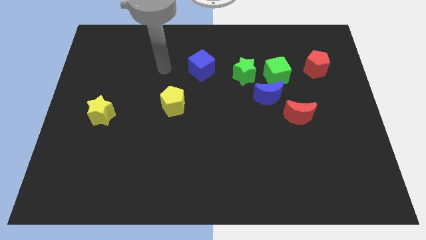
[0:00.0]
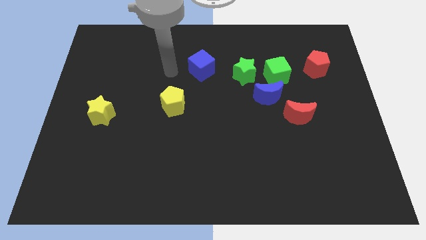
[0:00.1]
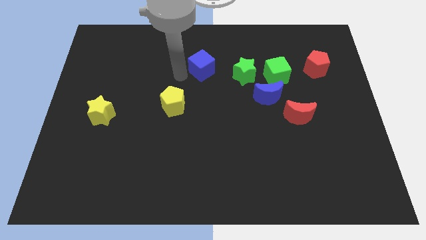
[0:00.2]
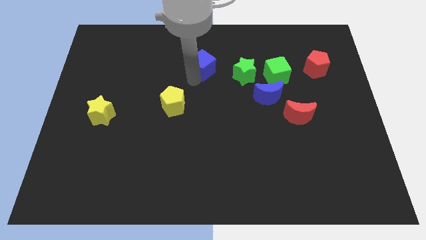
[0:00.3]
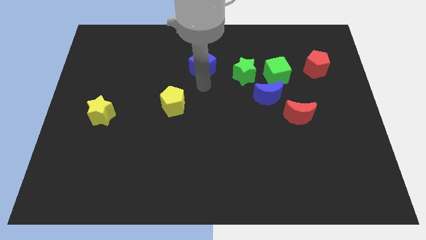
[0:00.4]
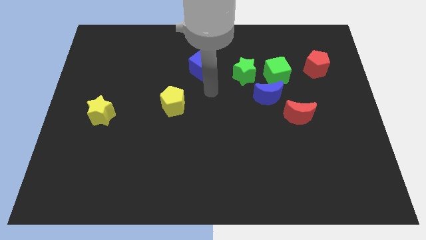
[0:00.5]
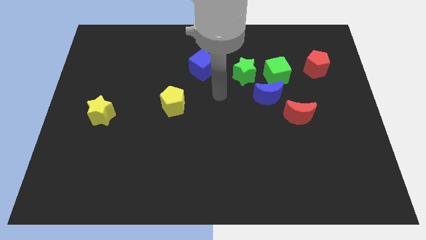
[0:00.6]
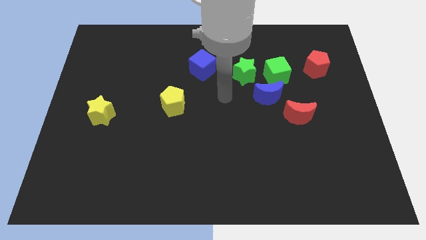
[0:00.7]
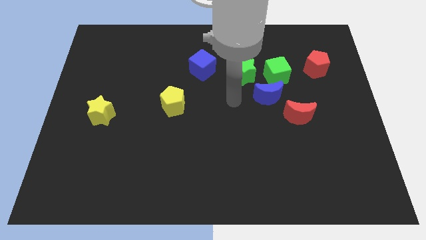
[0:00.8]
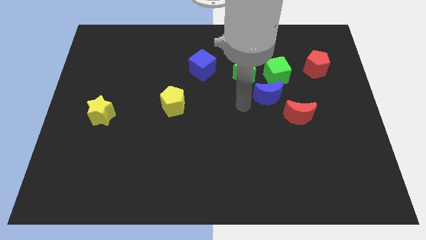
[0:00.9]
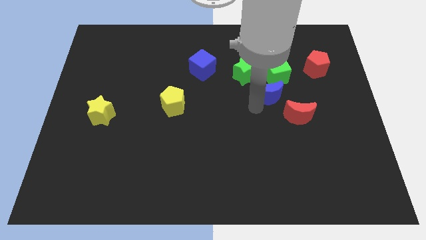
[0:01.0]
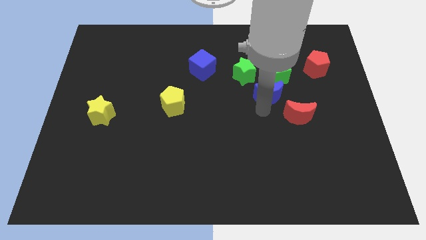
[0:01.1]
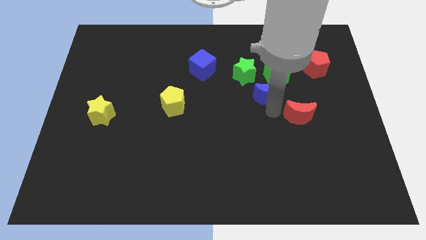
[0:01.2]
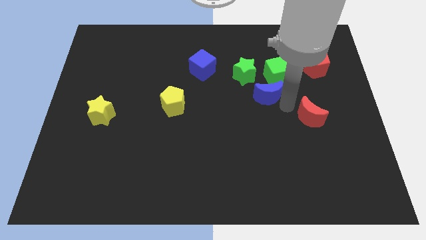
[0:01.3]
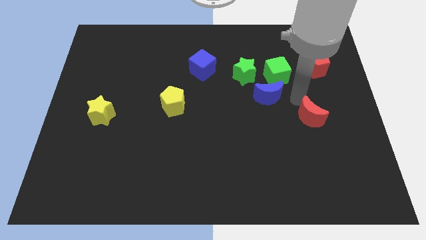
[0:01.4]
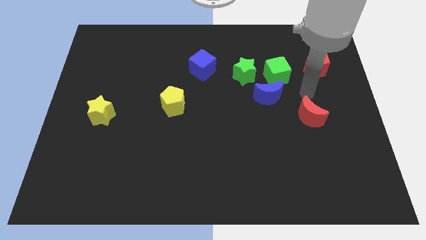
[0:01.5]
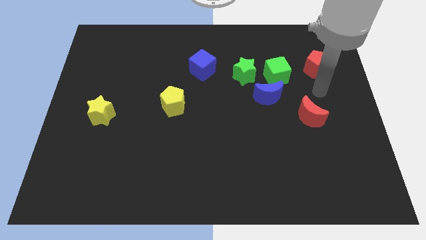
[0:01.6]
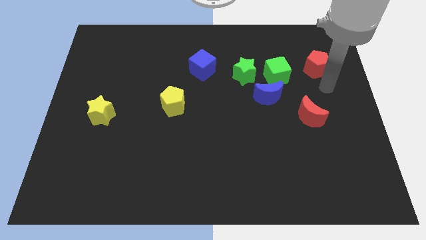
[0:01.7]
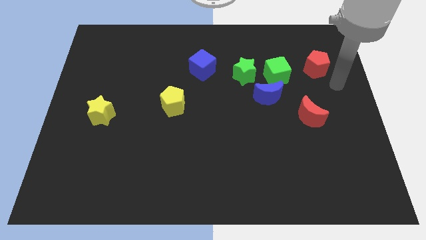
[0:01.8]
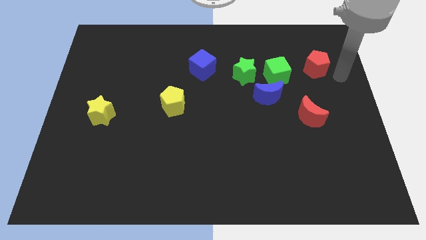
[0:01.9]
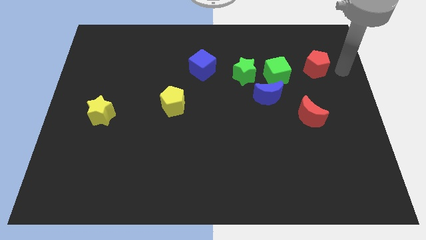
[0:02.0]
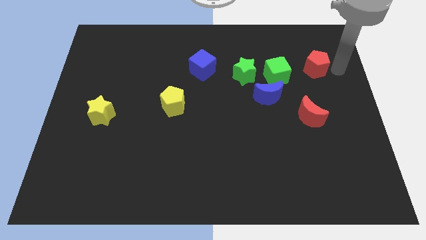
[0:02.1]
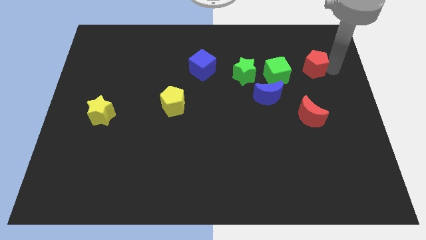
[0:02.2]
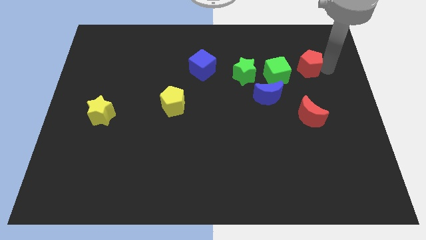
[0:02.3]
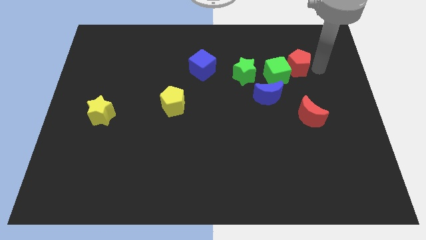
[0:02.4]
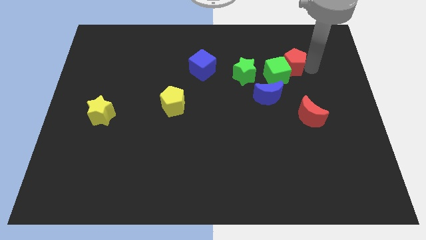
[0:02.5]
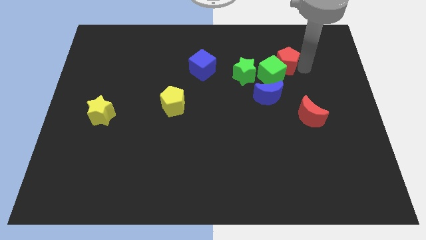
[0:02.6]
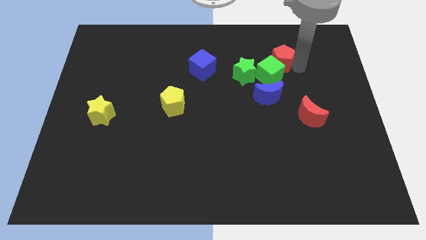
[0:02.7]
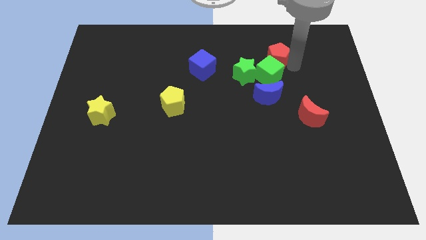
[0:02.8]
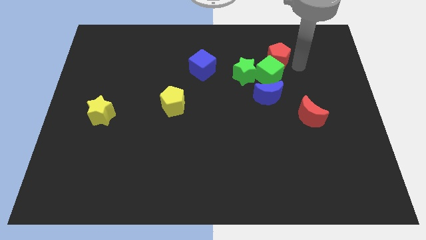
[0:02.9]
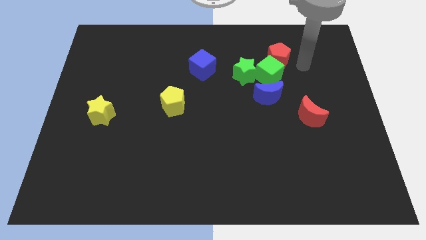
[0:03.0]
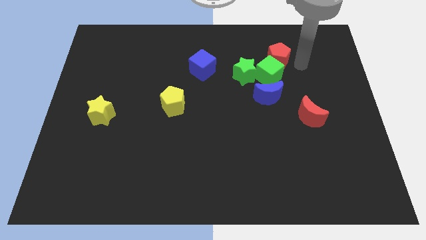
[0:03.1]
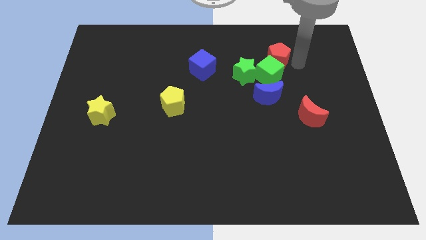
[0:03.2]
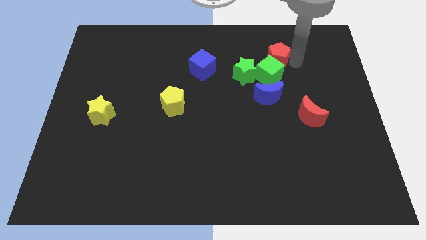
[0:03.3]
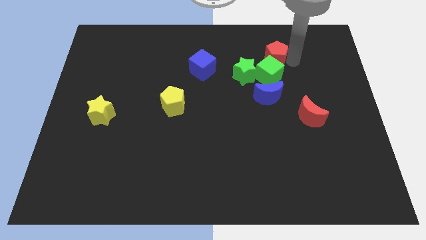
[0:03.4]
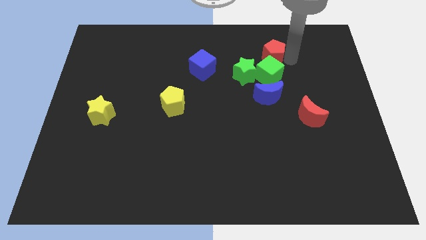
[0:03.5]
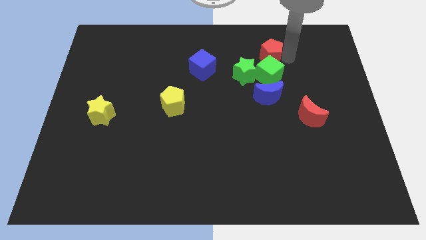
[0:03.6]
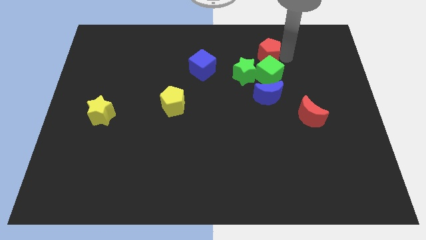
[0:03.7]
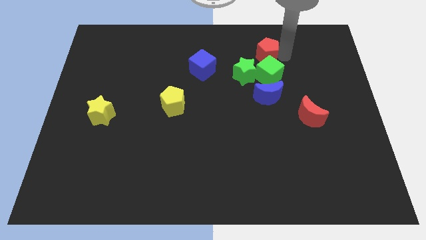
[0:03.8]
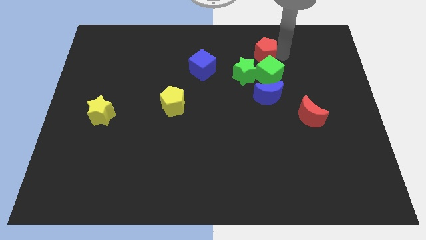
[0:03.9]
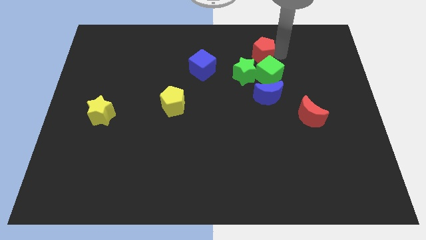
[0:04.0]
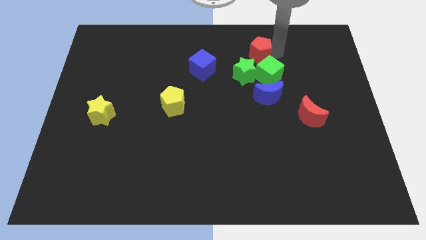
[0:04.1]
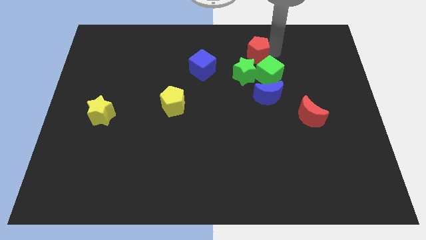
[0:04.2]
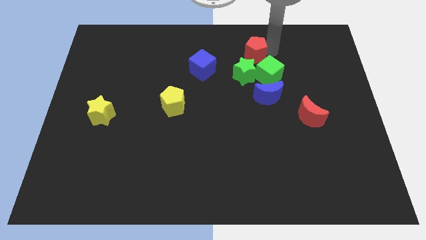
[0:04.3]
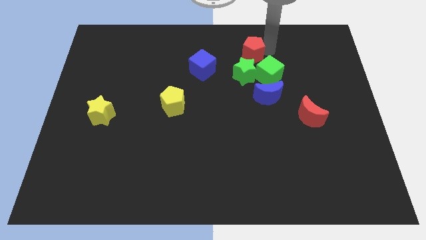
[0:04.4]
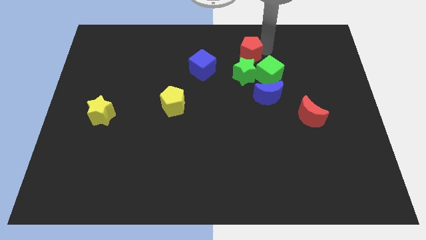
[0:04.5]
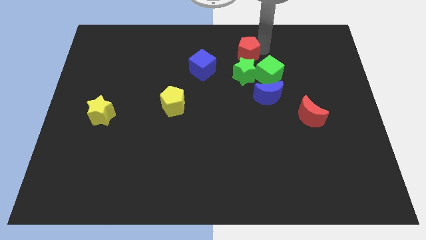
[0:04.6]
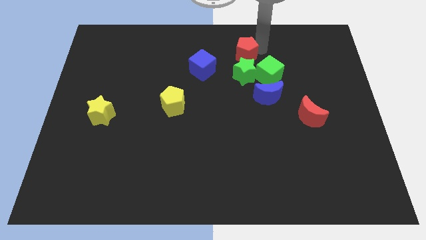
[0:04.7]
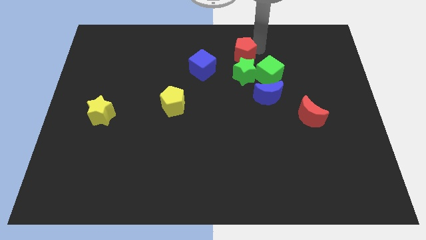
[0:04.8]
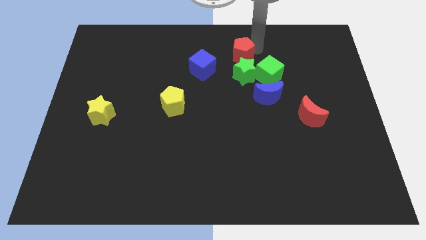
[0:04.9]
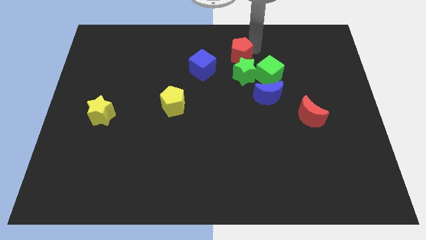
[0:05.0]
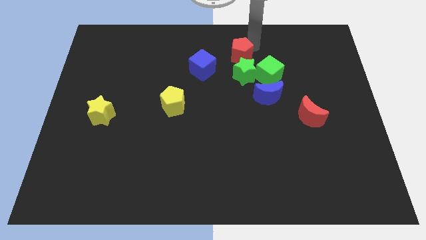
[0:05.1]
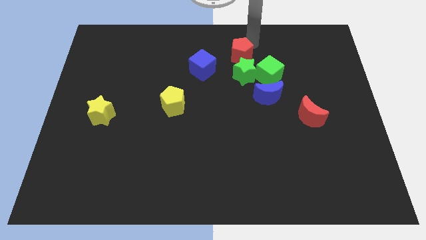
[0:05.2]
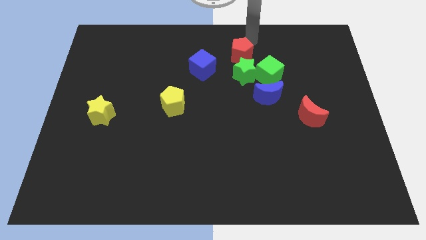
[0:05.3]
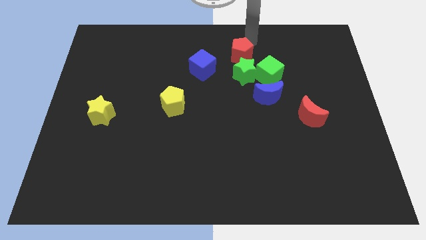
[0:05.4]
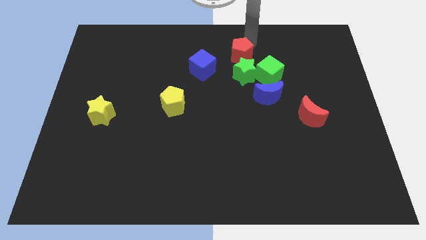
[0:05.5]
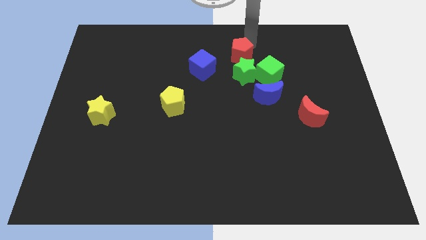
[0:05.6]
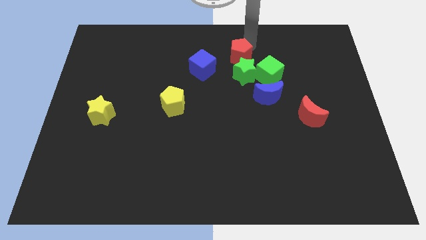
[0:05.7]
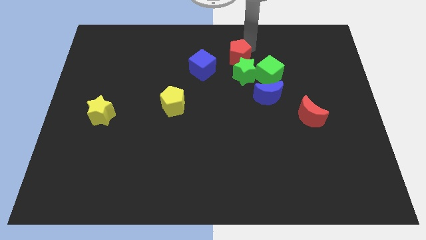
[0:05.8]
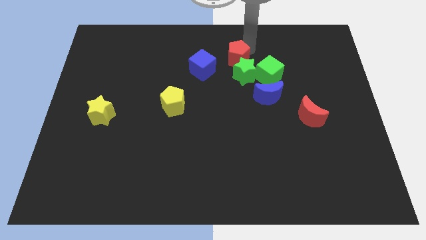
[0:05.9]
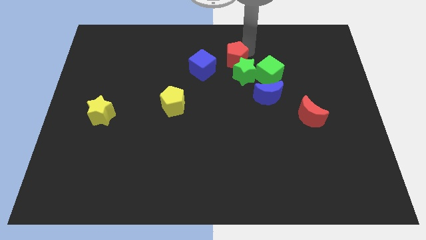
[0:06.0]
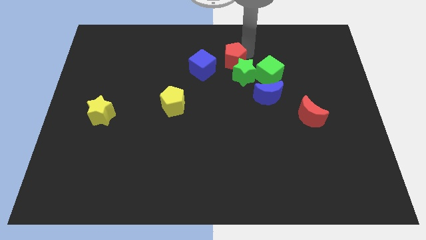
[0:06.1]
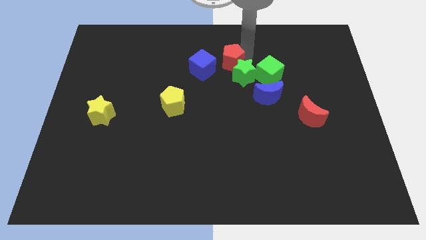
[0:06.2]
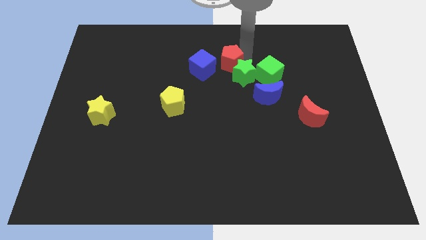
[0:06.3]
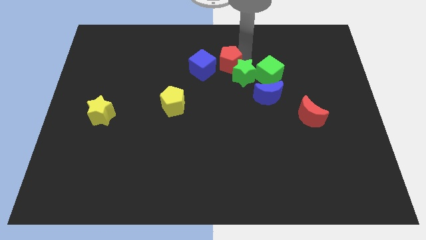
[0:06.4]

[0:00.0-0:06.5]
slide the red pentagon to the left of the green star
